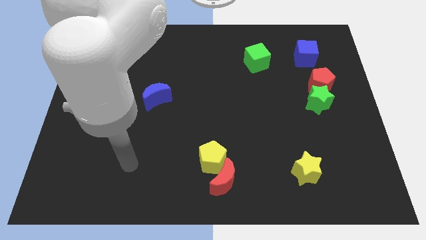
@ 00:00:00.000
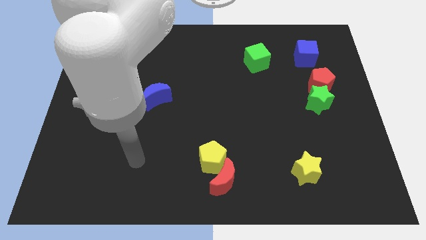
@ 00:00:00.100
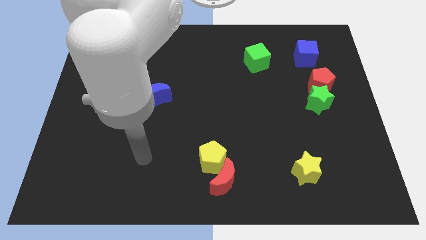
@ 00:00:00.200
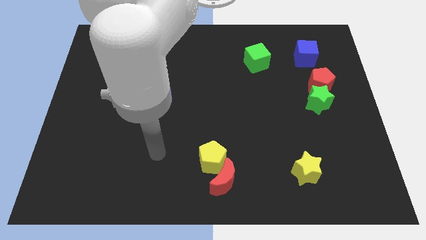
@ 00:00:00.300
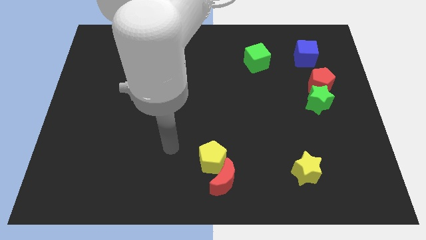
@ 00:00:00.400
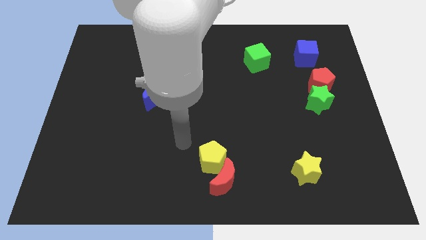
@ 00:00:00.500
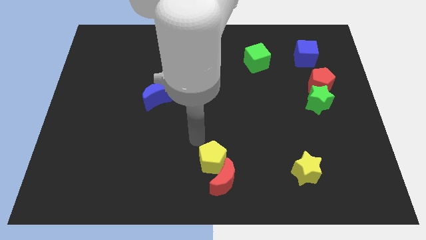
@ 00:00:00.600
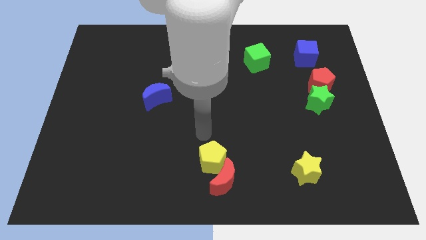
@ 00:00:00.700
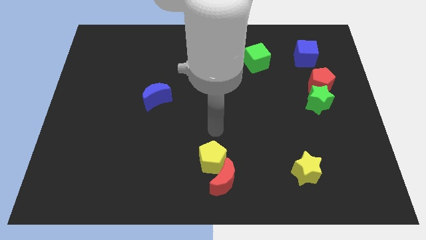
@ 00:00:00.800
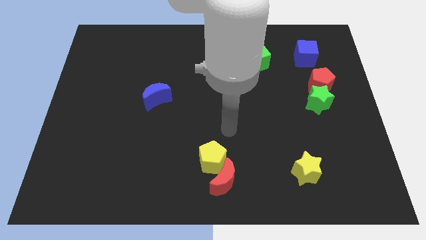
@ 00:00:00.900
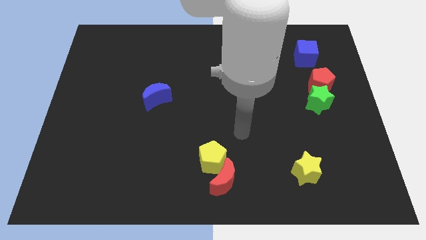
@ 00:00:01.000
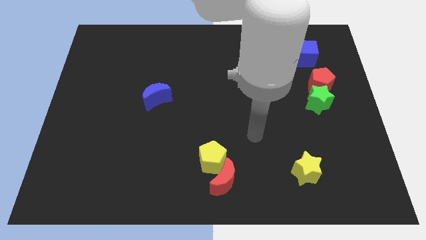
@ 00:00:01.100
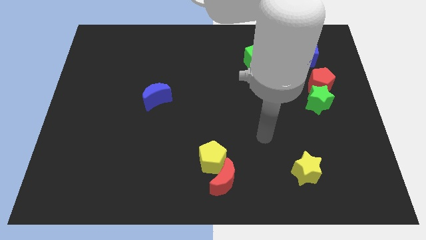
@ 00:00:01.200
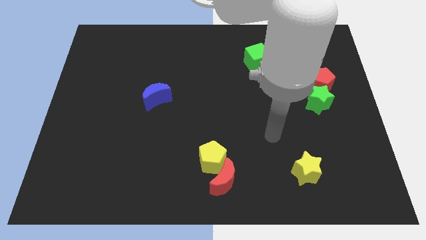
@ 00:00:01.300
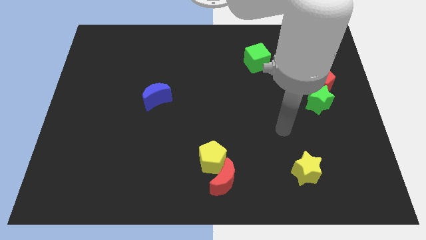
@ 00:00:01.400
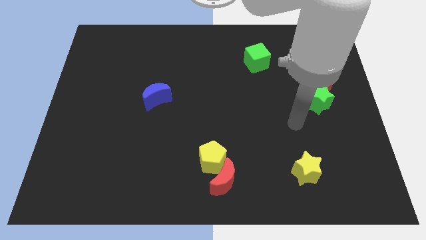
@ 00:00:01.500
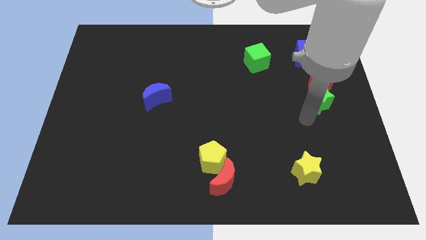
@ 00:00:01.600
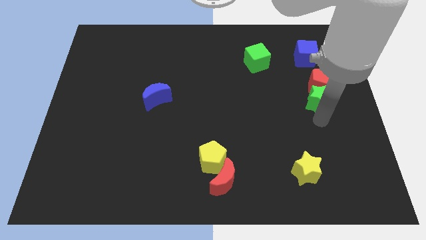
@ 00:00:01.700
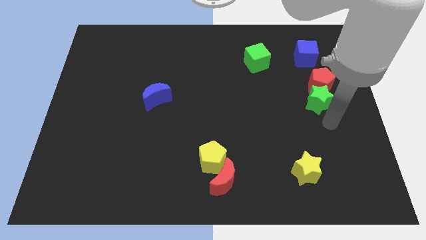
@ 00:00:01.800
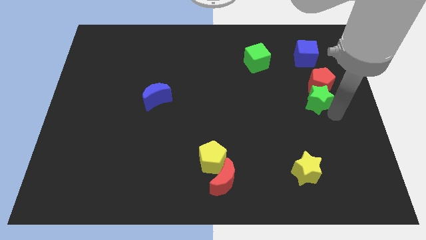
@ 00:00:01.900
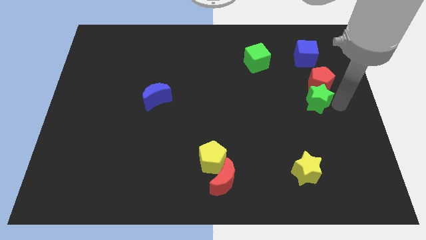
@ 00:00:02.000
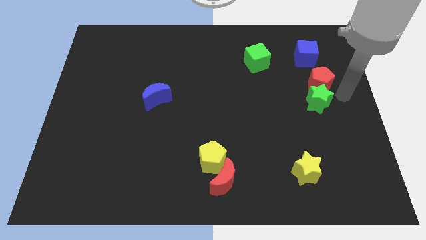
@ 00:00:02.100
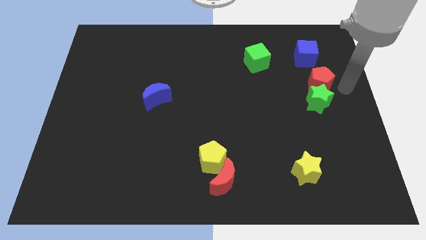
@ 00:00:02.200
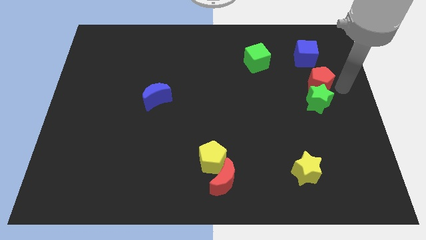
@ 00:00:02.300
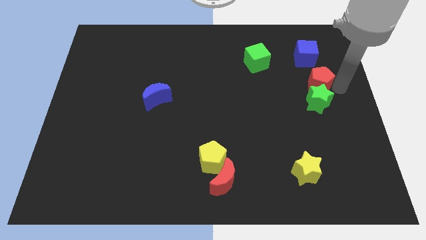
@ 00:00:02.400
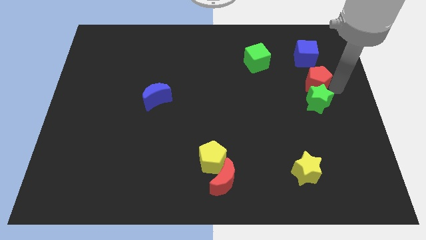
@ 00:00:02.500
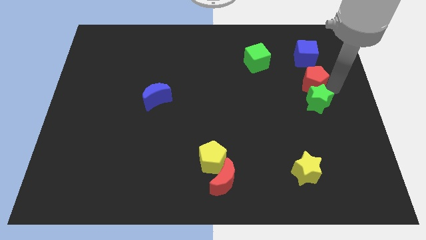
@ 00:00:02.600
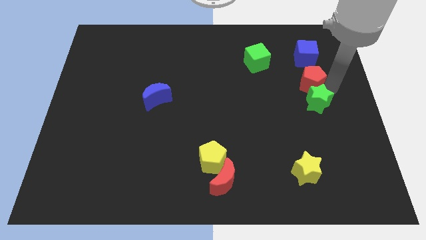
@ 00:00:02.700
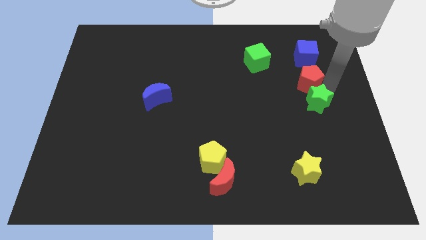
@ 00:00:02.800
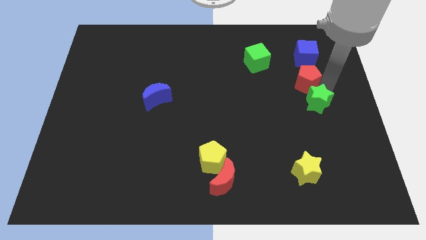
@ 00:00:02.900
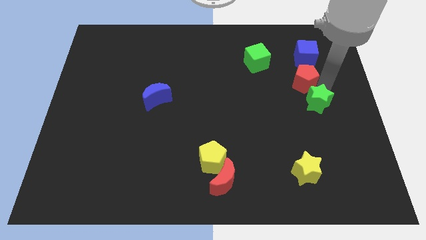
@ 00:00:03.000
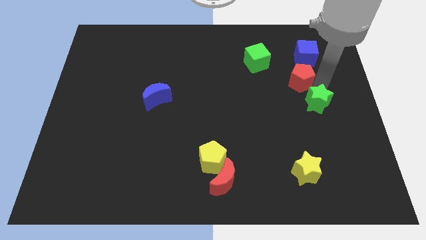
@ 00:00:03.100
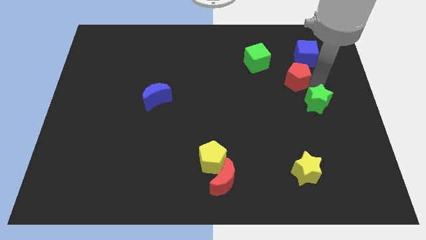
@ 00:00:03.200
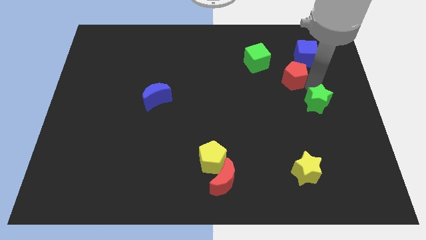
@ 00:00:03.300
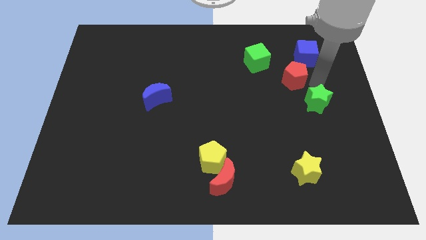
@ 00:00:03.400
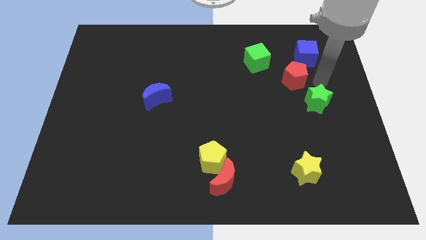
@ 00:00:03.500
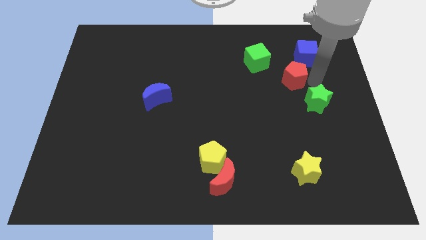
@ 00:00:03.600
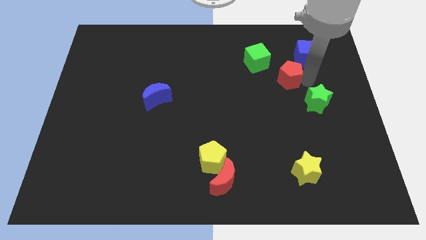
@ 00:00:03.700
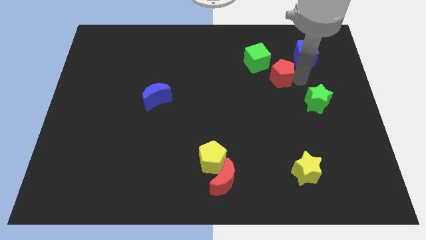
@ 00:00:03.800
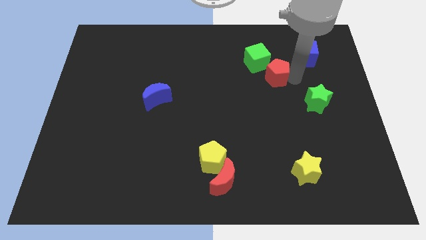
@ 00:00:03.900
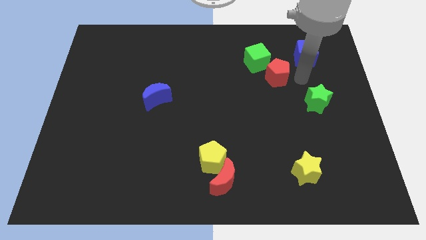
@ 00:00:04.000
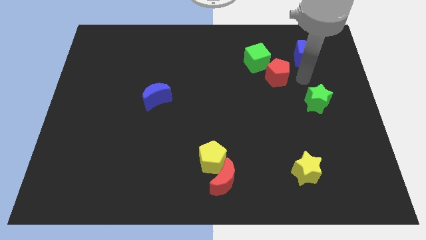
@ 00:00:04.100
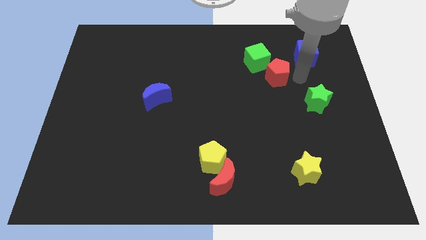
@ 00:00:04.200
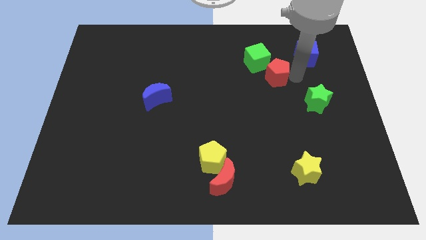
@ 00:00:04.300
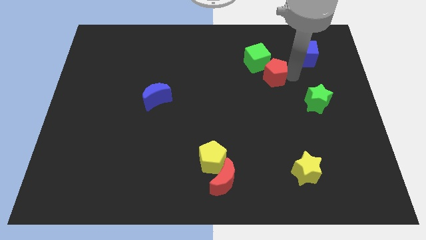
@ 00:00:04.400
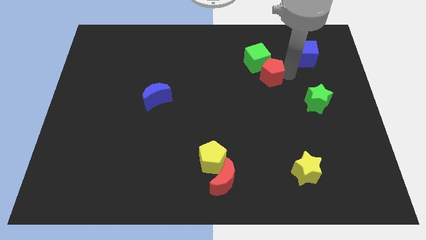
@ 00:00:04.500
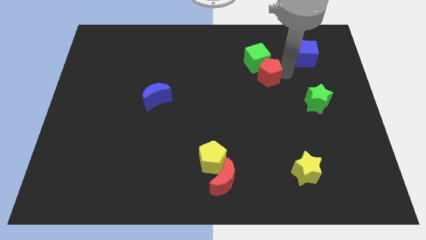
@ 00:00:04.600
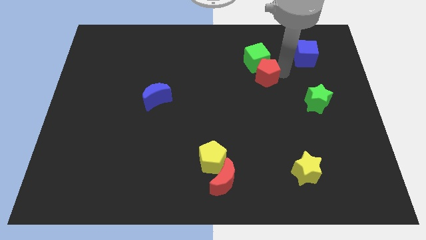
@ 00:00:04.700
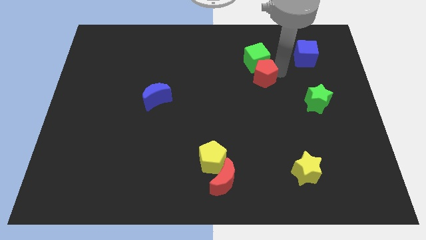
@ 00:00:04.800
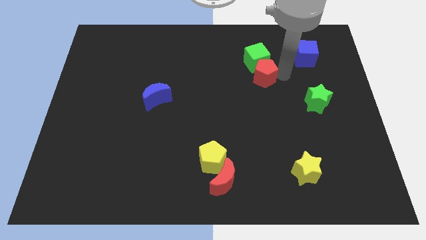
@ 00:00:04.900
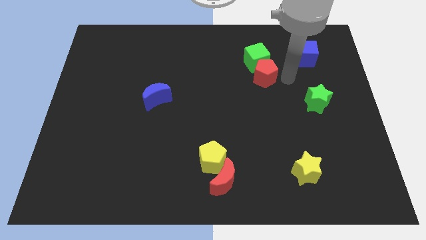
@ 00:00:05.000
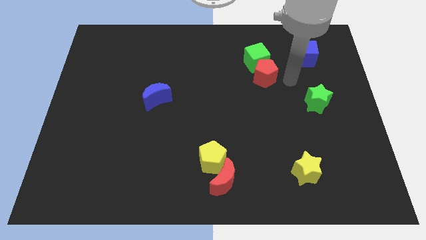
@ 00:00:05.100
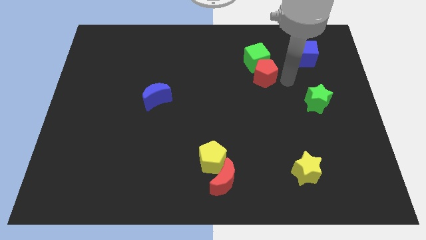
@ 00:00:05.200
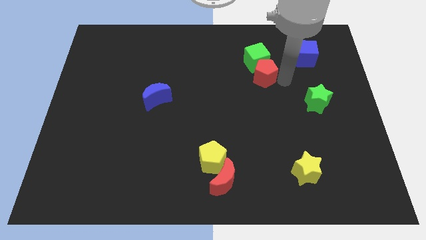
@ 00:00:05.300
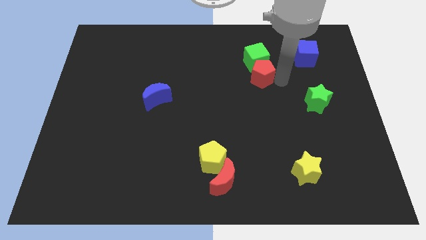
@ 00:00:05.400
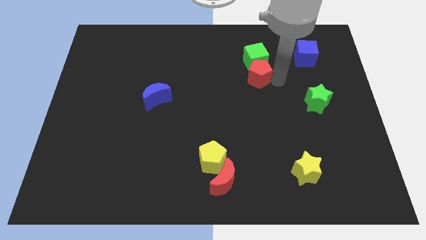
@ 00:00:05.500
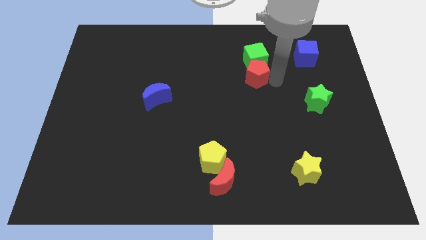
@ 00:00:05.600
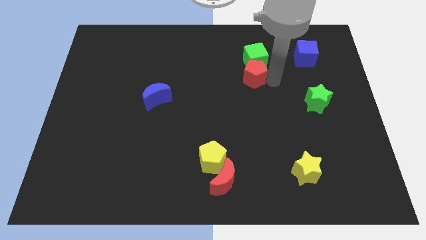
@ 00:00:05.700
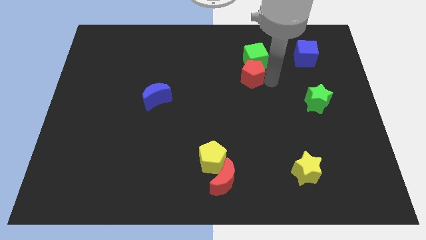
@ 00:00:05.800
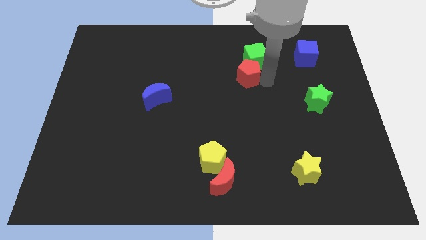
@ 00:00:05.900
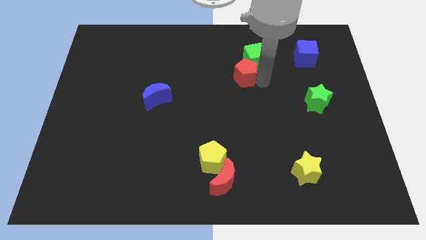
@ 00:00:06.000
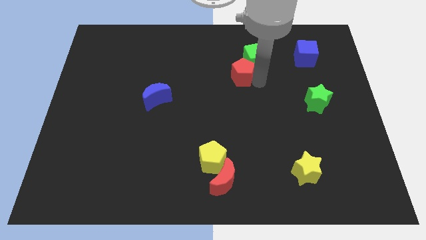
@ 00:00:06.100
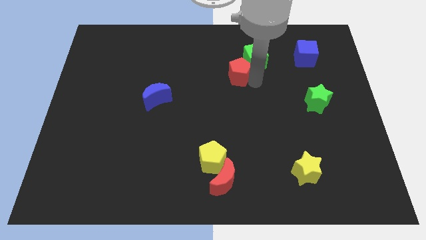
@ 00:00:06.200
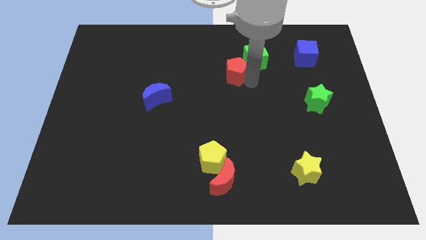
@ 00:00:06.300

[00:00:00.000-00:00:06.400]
put the red pentagon just left of the green cube

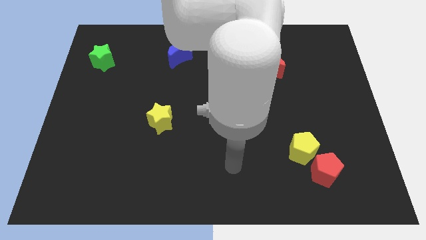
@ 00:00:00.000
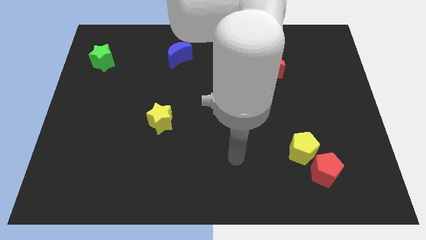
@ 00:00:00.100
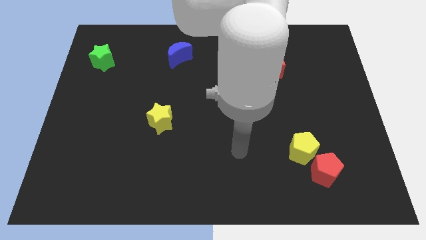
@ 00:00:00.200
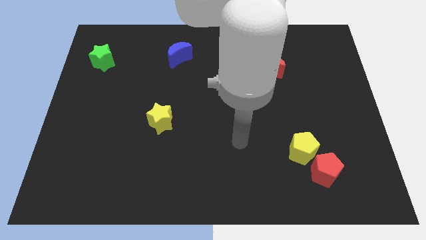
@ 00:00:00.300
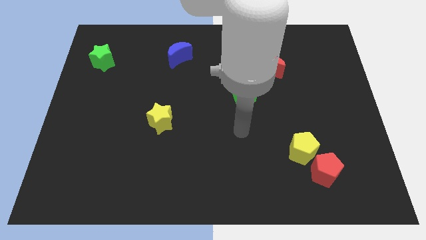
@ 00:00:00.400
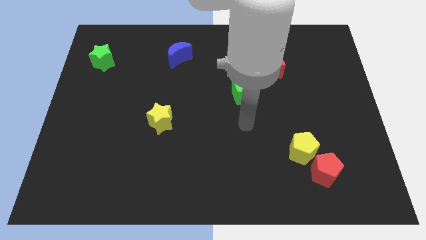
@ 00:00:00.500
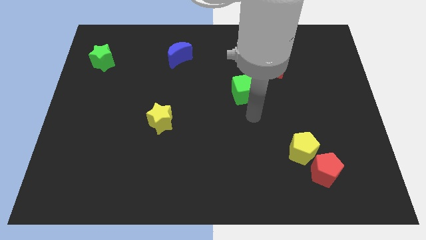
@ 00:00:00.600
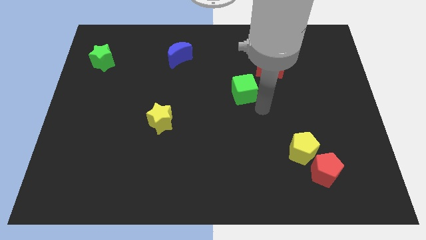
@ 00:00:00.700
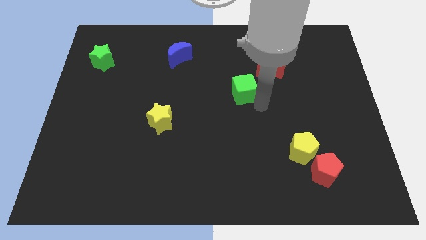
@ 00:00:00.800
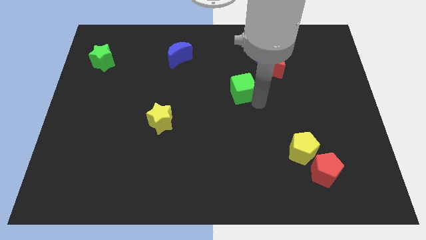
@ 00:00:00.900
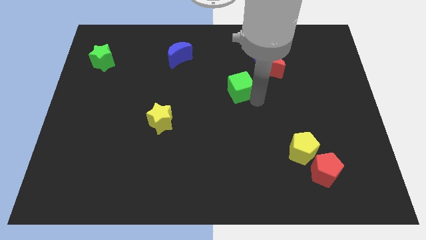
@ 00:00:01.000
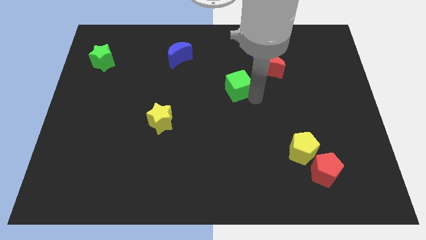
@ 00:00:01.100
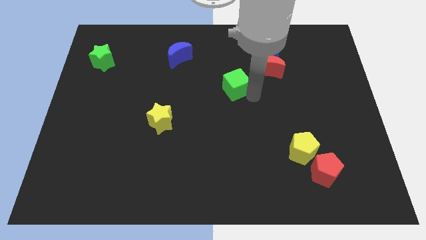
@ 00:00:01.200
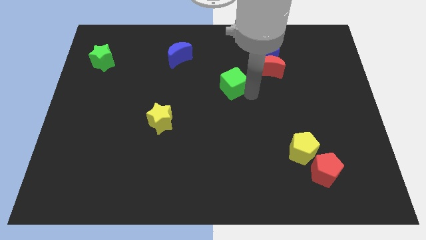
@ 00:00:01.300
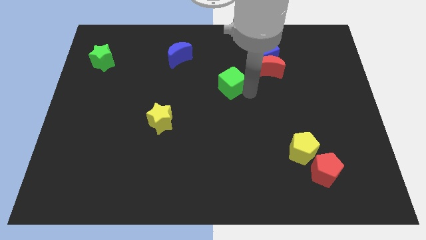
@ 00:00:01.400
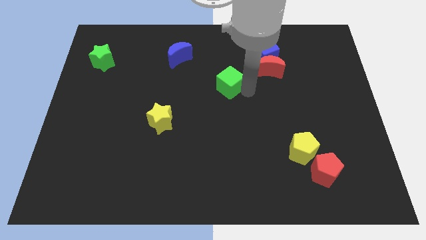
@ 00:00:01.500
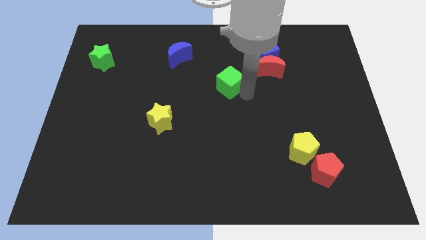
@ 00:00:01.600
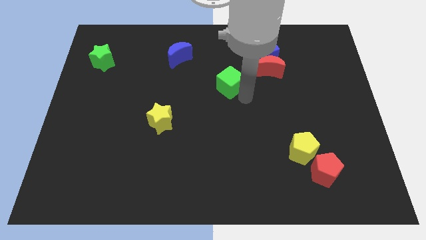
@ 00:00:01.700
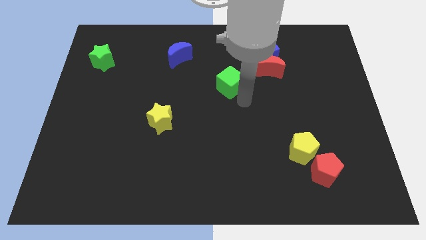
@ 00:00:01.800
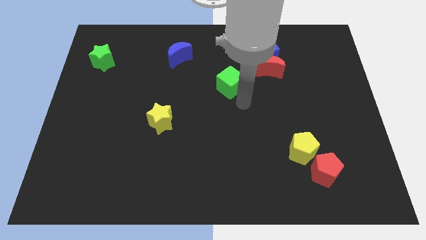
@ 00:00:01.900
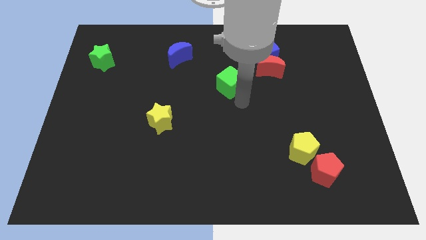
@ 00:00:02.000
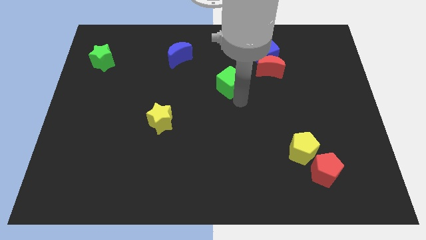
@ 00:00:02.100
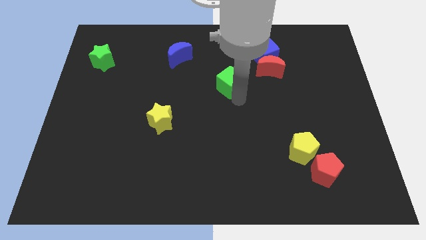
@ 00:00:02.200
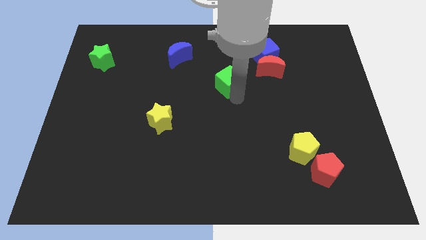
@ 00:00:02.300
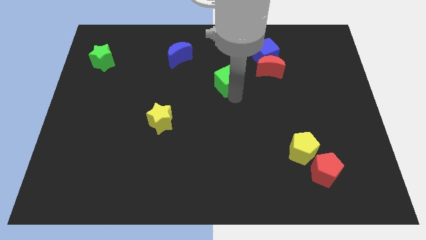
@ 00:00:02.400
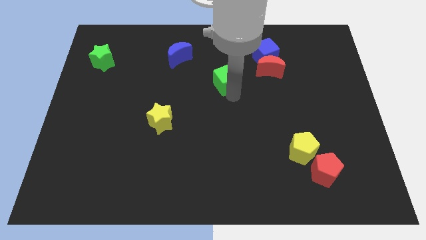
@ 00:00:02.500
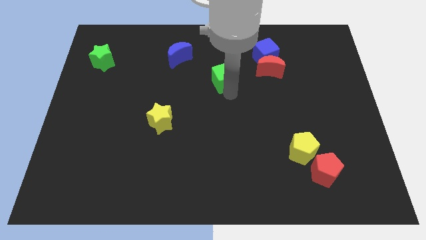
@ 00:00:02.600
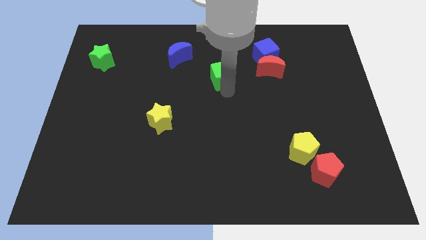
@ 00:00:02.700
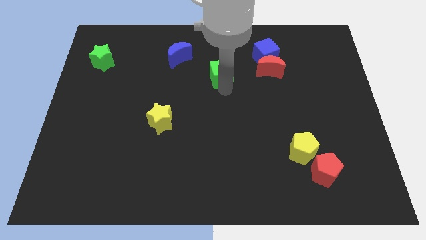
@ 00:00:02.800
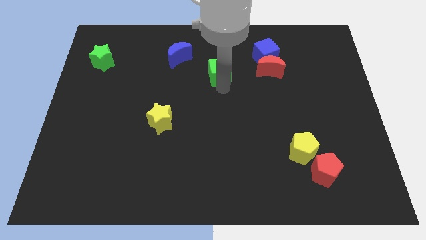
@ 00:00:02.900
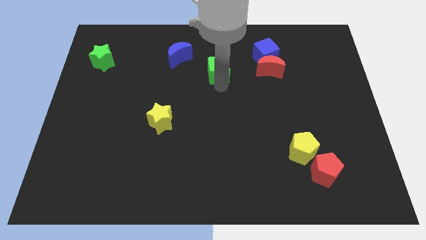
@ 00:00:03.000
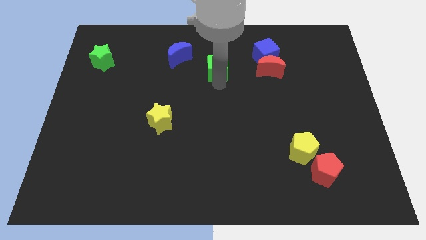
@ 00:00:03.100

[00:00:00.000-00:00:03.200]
put the green cube to the right side of the blue moon
